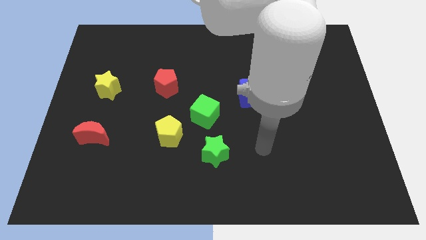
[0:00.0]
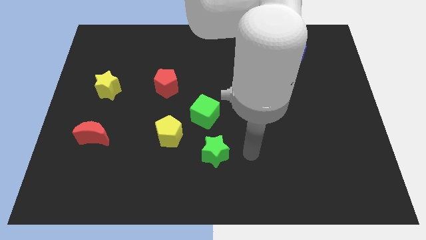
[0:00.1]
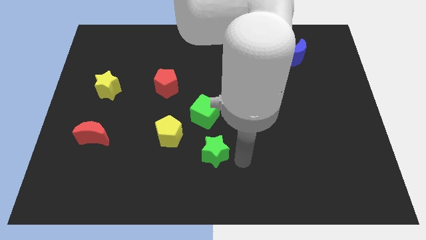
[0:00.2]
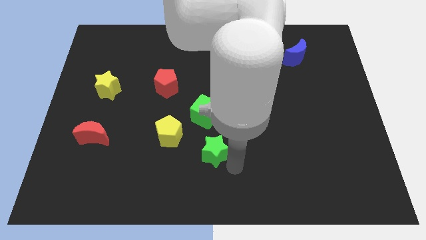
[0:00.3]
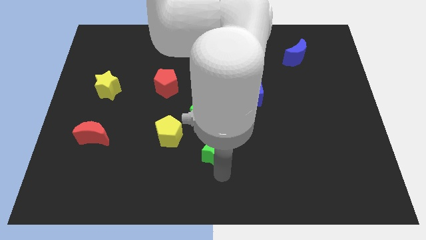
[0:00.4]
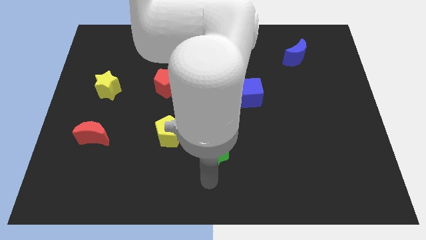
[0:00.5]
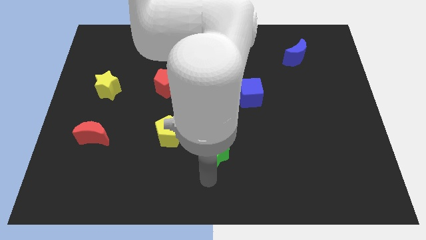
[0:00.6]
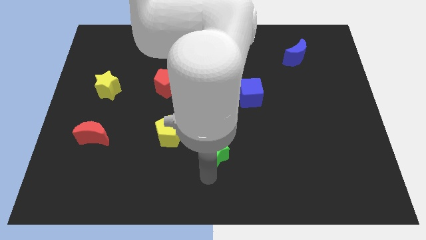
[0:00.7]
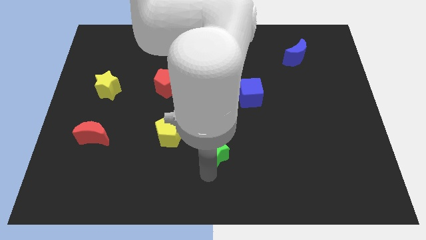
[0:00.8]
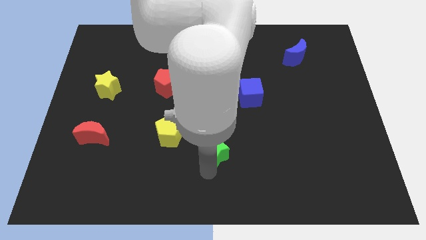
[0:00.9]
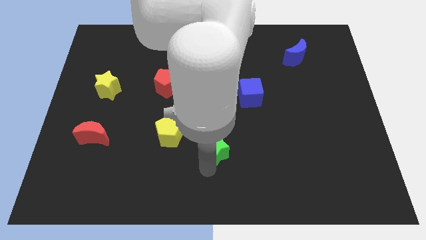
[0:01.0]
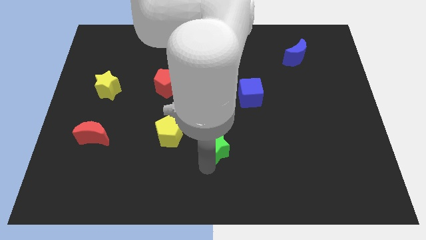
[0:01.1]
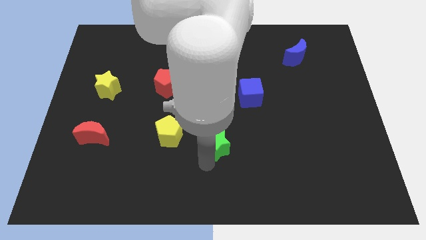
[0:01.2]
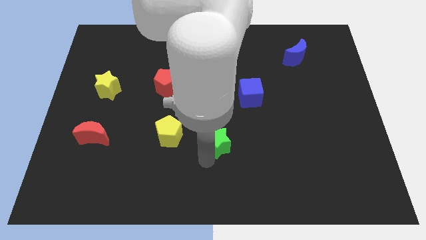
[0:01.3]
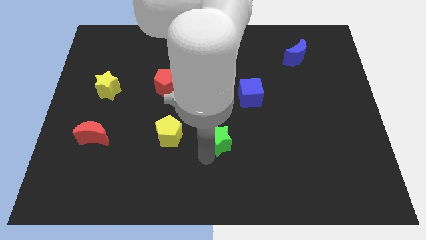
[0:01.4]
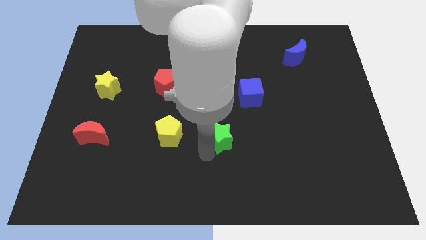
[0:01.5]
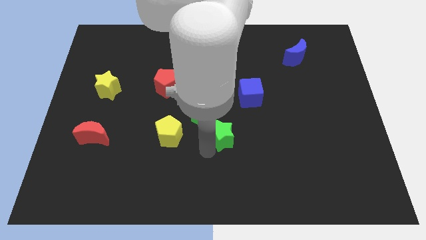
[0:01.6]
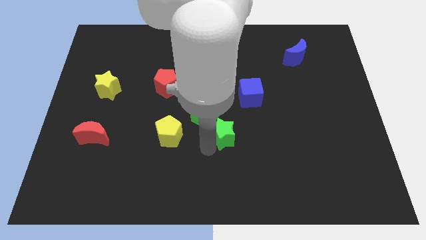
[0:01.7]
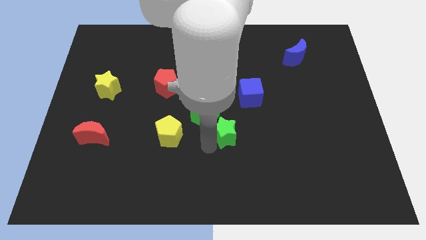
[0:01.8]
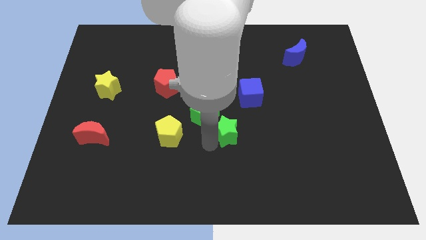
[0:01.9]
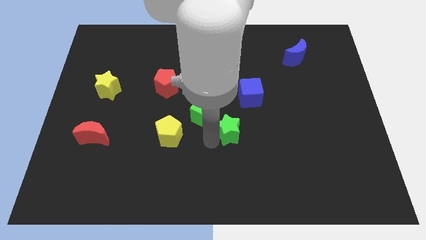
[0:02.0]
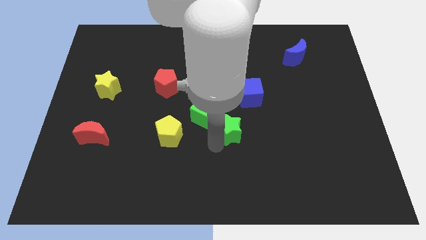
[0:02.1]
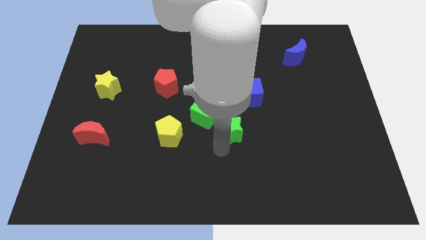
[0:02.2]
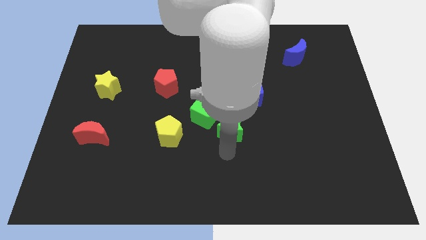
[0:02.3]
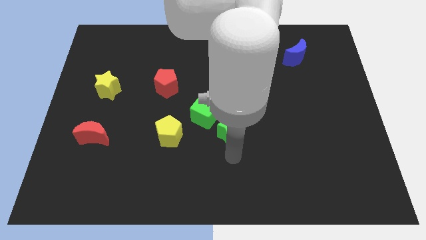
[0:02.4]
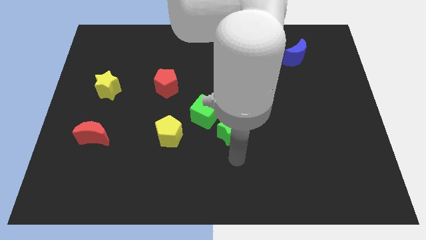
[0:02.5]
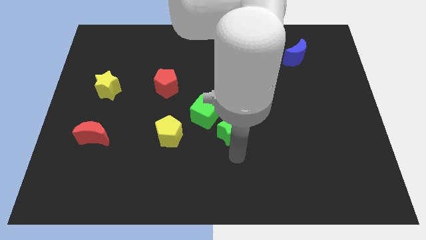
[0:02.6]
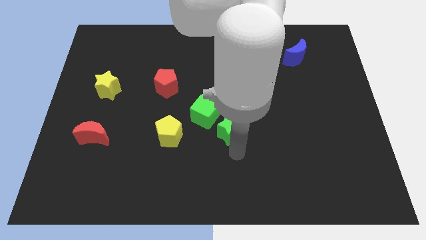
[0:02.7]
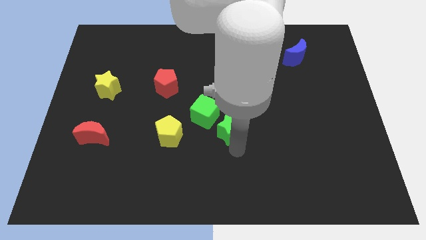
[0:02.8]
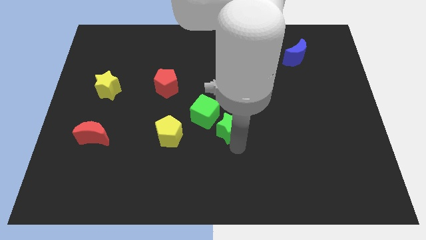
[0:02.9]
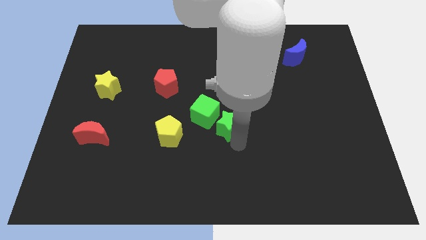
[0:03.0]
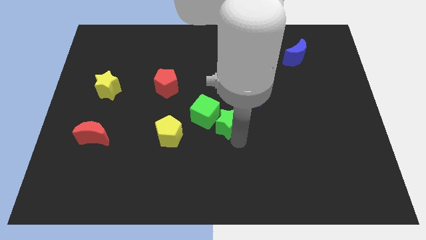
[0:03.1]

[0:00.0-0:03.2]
move the green star upwards slightly

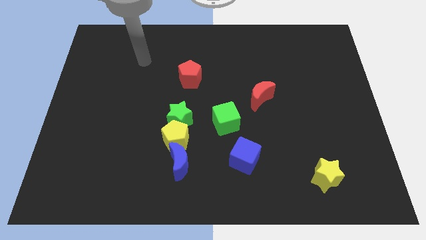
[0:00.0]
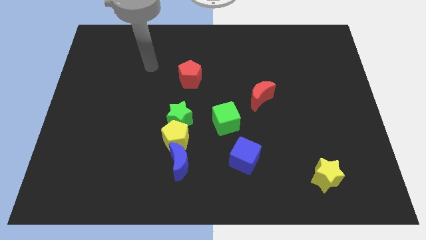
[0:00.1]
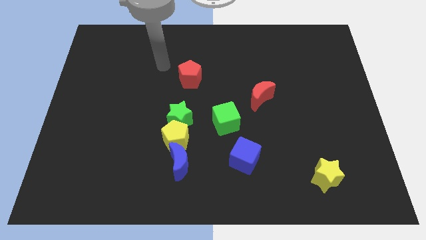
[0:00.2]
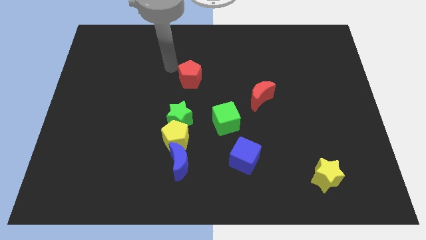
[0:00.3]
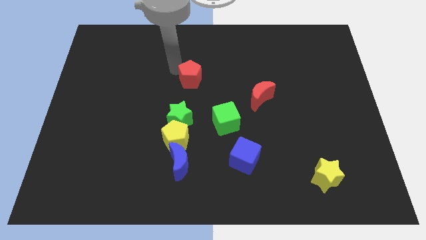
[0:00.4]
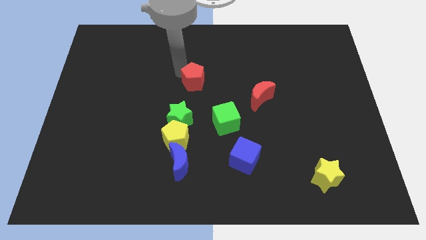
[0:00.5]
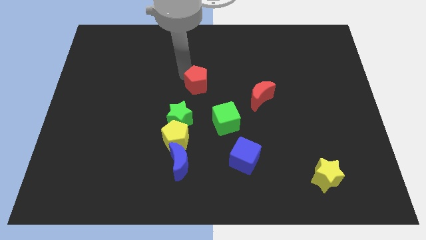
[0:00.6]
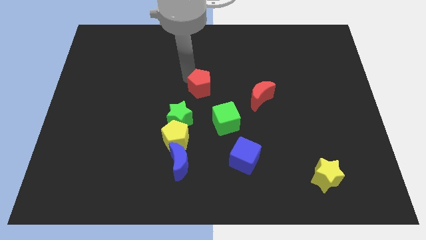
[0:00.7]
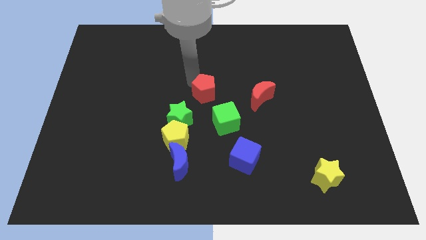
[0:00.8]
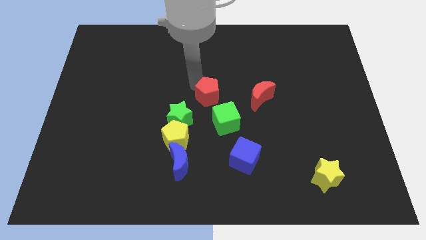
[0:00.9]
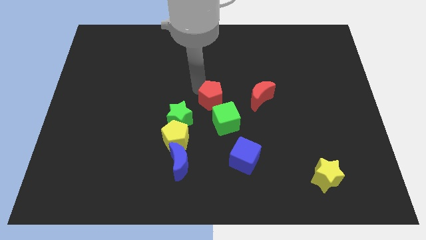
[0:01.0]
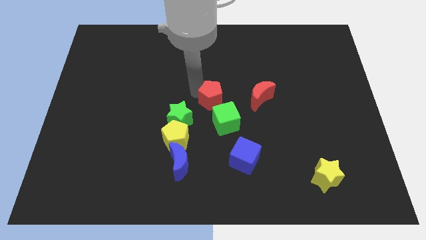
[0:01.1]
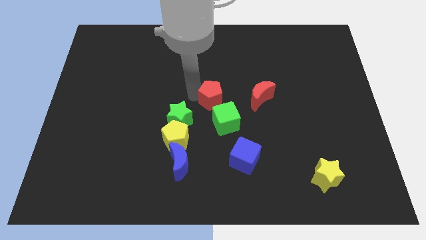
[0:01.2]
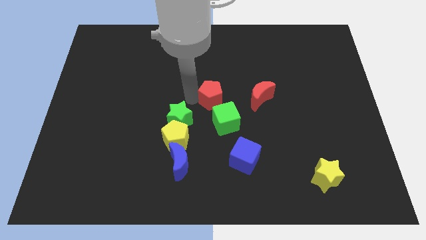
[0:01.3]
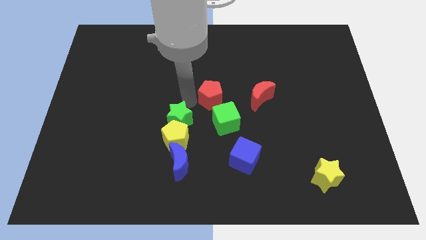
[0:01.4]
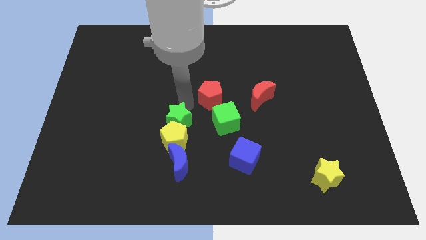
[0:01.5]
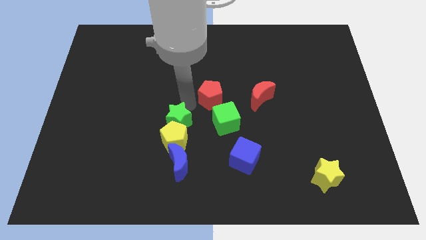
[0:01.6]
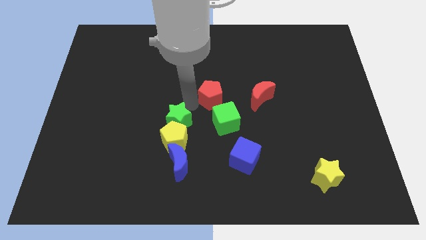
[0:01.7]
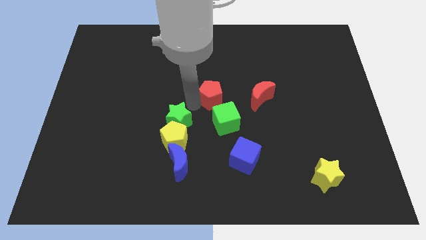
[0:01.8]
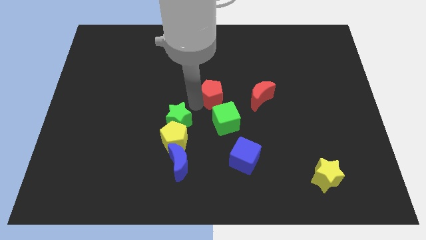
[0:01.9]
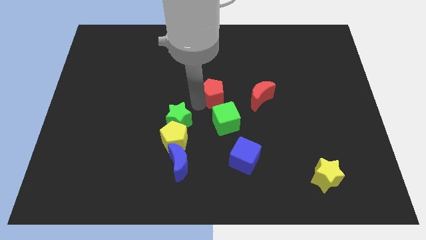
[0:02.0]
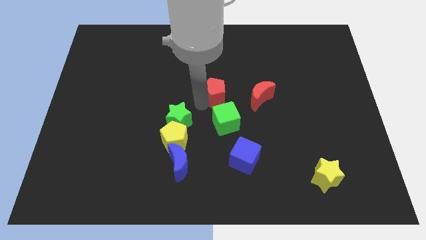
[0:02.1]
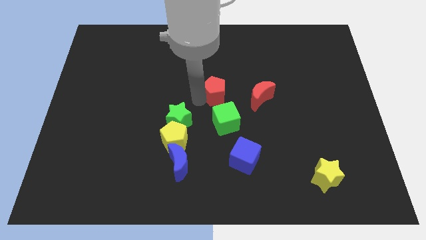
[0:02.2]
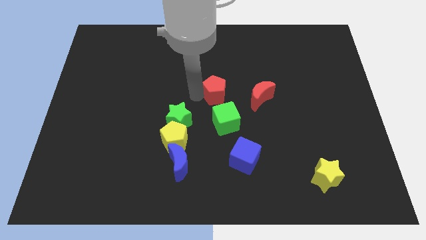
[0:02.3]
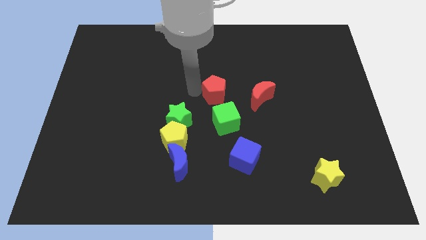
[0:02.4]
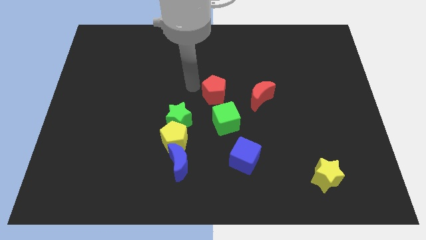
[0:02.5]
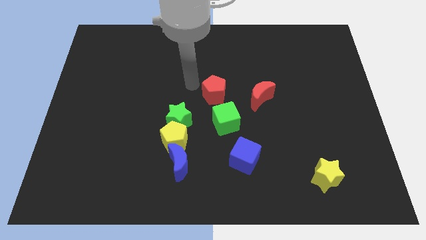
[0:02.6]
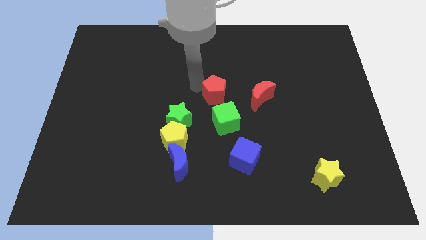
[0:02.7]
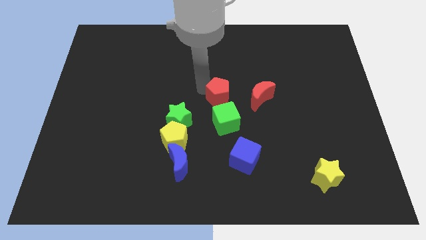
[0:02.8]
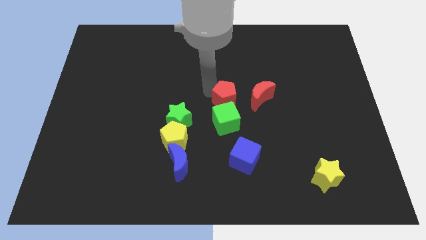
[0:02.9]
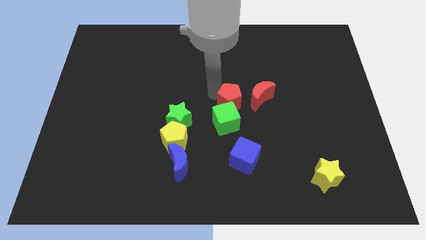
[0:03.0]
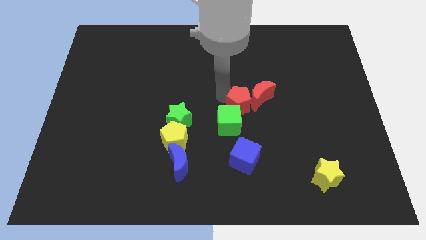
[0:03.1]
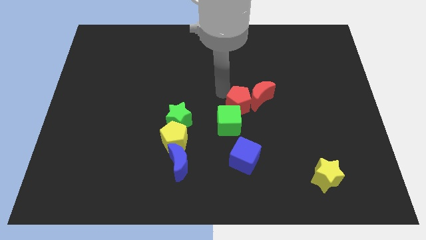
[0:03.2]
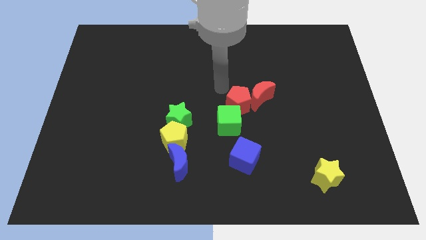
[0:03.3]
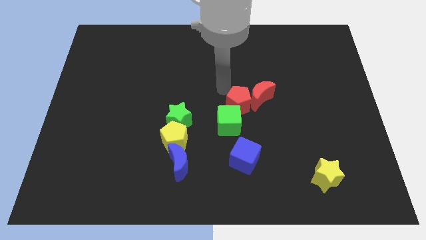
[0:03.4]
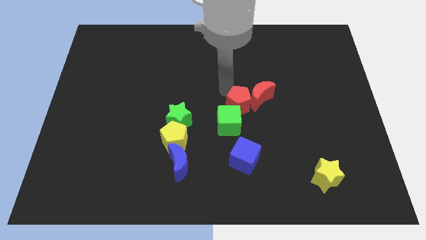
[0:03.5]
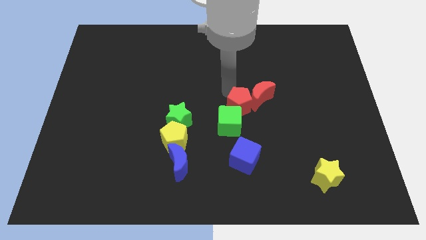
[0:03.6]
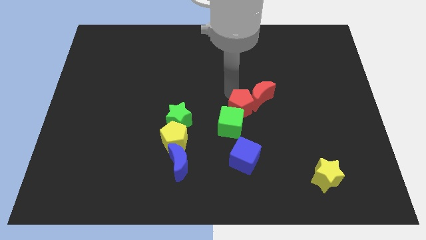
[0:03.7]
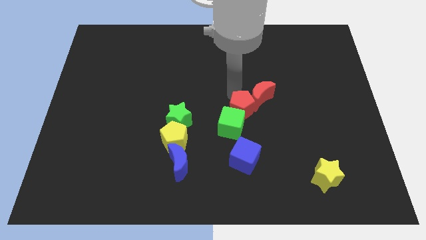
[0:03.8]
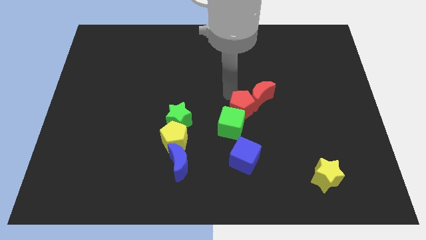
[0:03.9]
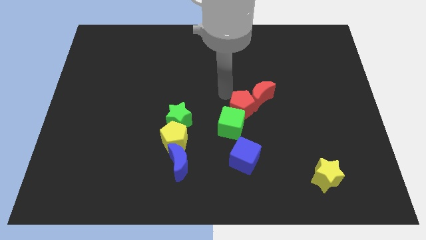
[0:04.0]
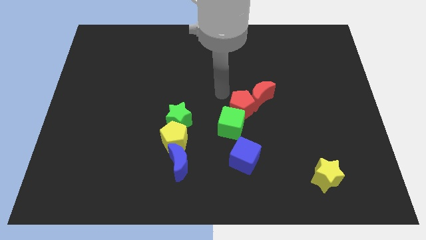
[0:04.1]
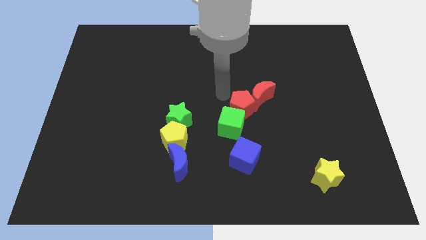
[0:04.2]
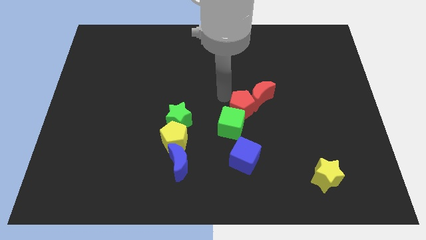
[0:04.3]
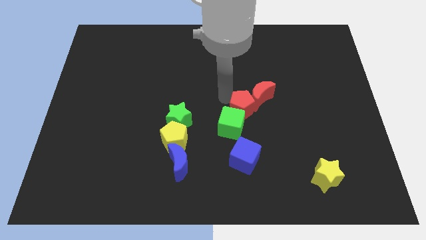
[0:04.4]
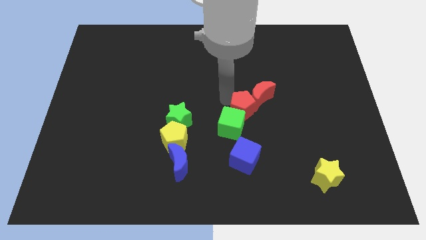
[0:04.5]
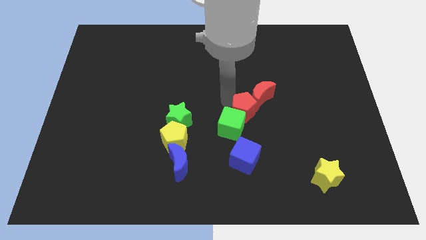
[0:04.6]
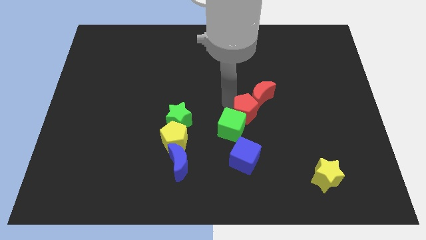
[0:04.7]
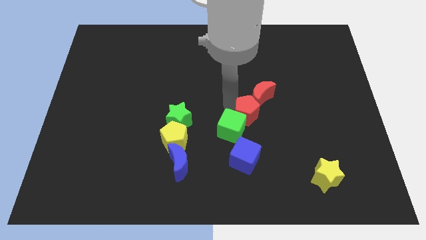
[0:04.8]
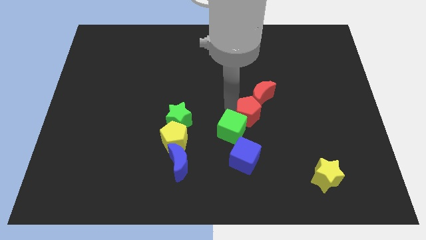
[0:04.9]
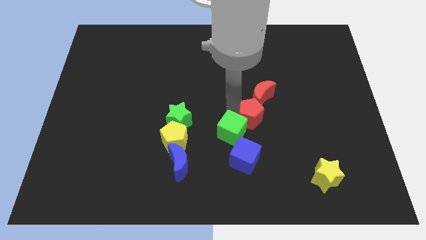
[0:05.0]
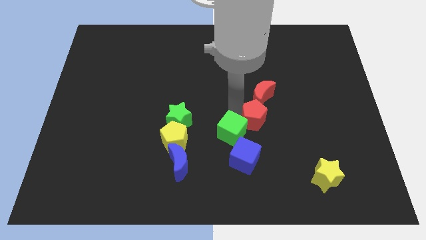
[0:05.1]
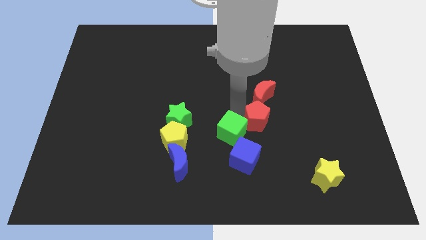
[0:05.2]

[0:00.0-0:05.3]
push the red pentagon down and then right
